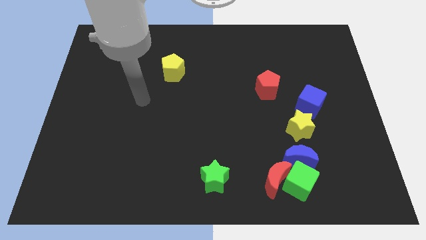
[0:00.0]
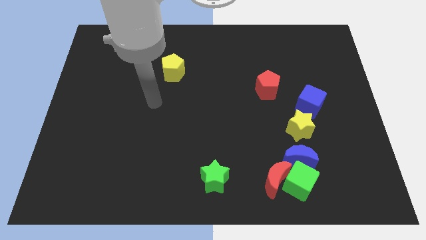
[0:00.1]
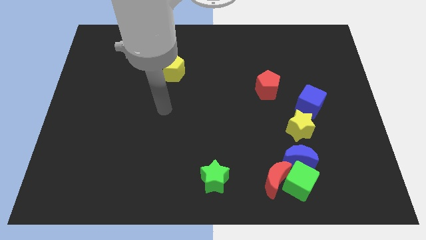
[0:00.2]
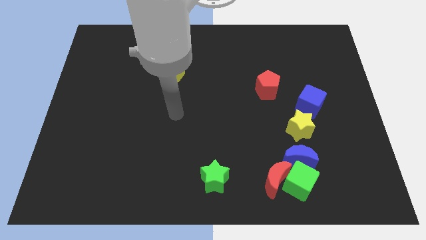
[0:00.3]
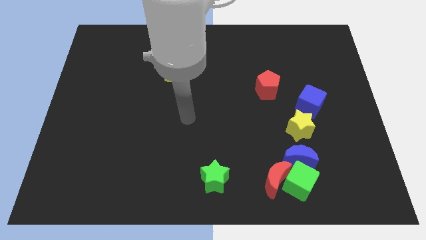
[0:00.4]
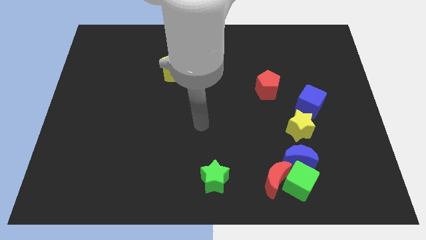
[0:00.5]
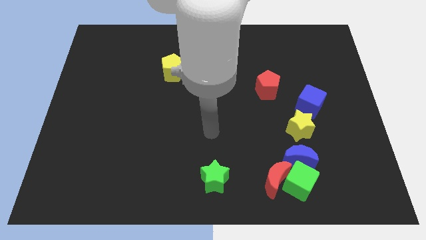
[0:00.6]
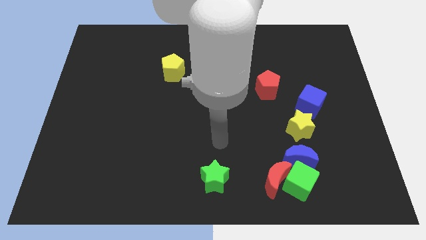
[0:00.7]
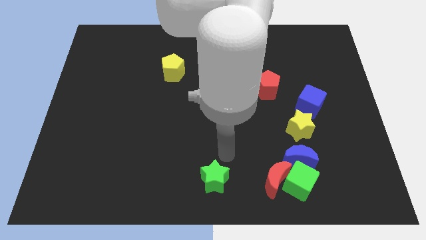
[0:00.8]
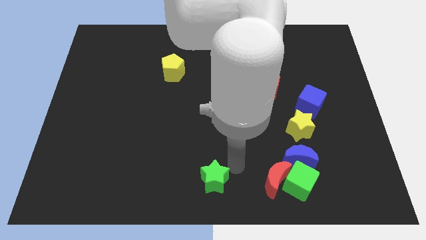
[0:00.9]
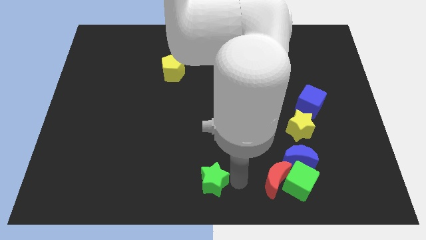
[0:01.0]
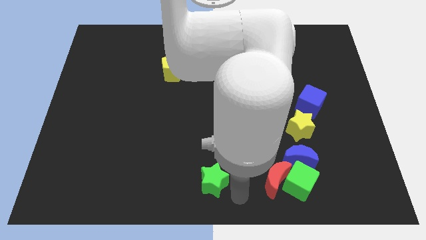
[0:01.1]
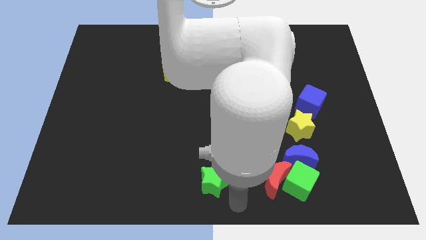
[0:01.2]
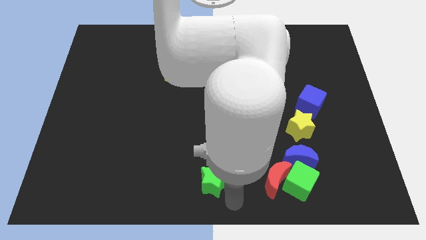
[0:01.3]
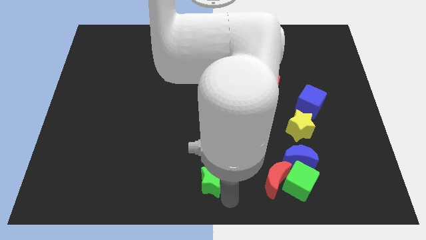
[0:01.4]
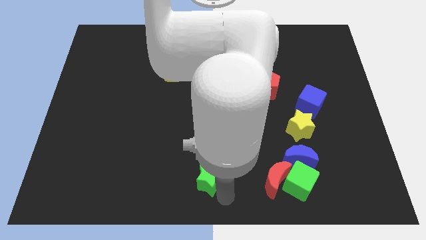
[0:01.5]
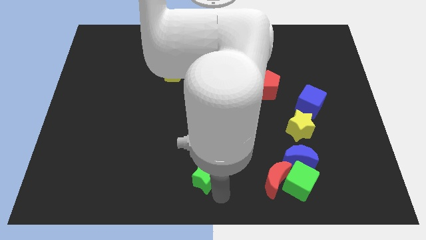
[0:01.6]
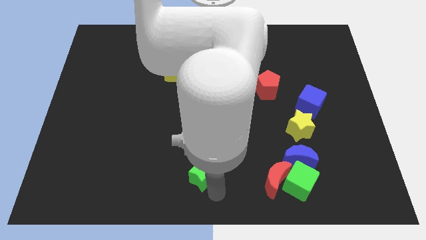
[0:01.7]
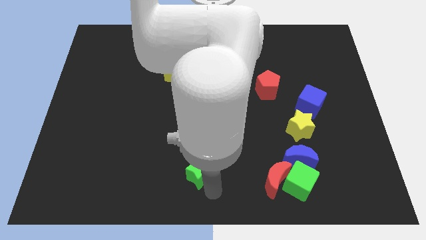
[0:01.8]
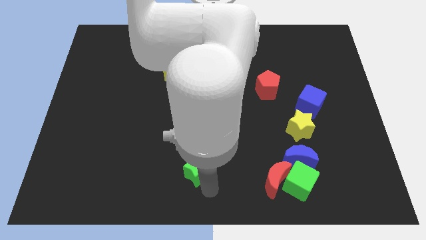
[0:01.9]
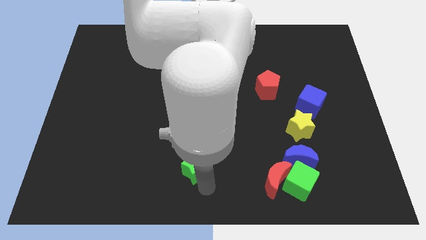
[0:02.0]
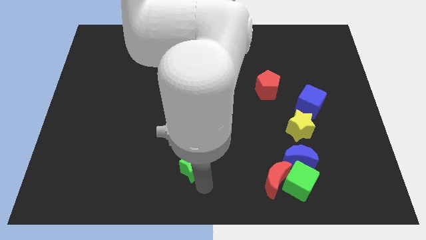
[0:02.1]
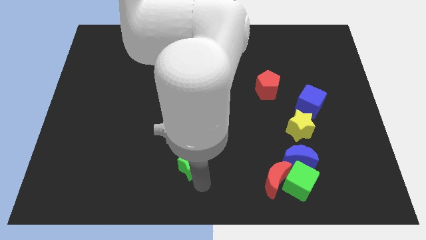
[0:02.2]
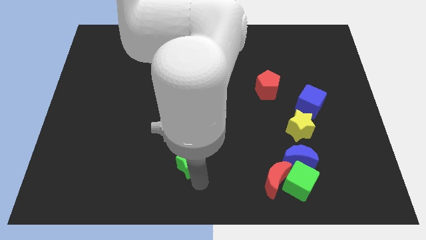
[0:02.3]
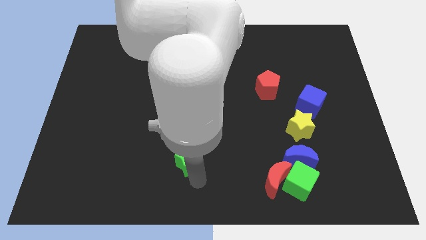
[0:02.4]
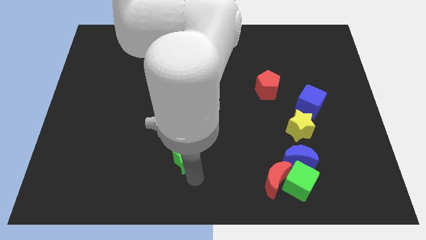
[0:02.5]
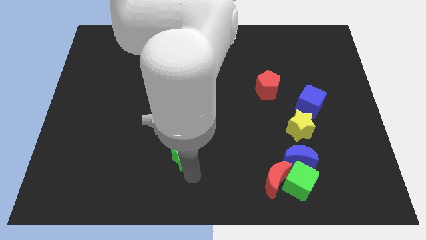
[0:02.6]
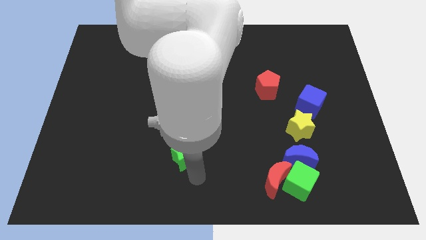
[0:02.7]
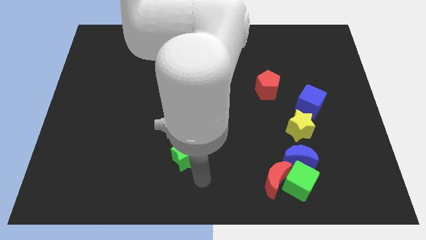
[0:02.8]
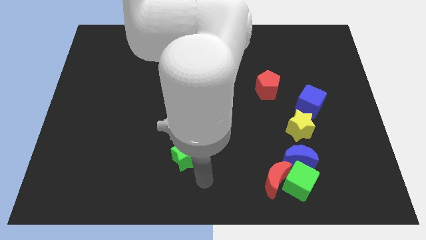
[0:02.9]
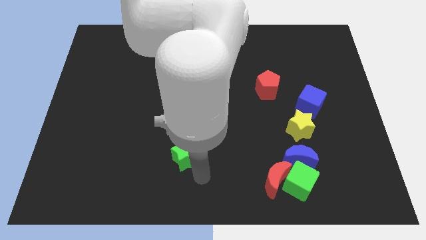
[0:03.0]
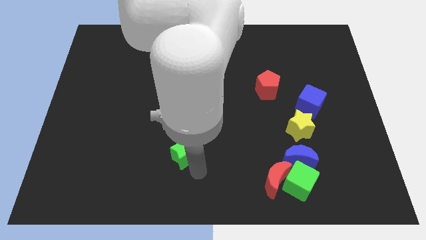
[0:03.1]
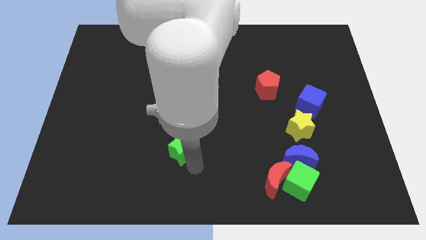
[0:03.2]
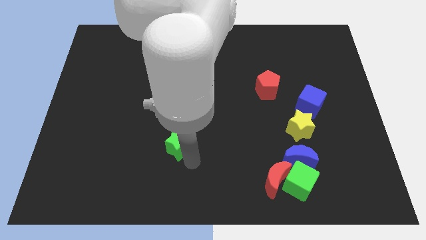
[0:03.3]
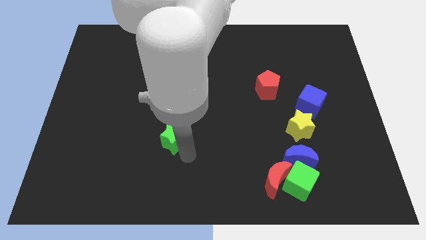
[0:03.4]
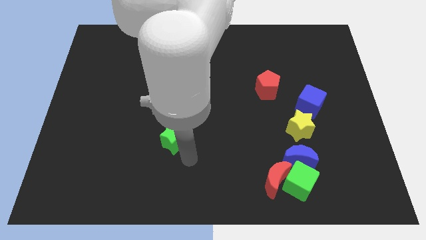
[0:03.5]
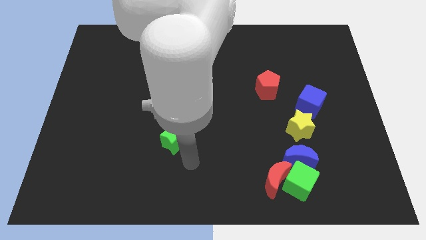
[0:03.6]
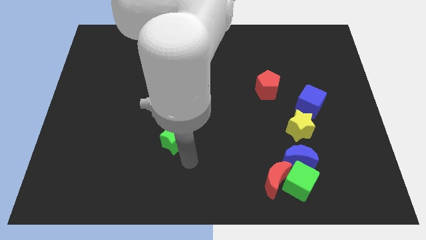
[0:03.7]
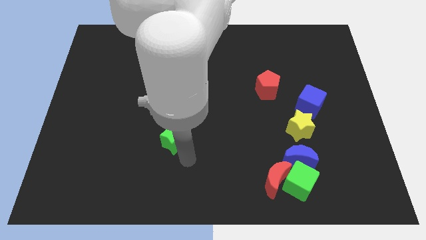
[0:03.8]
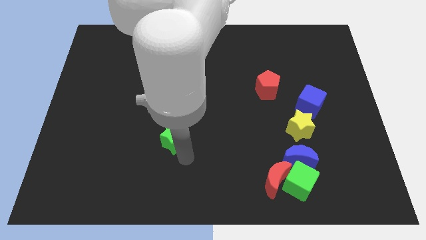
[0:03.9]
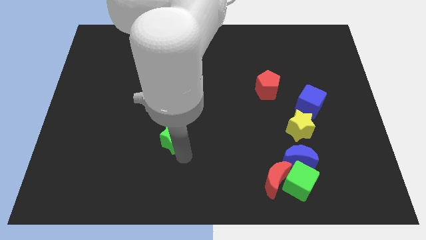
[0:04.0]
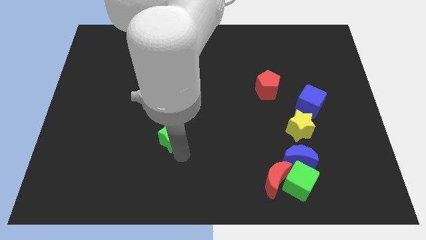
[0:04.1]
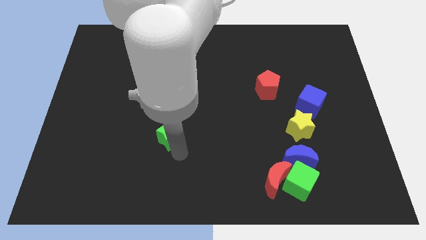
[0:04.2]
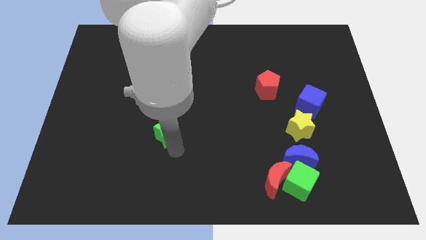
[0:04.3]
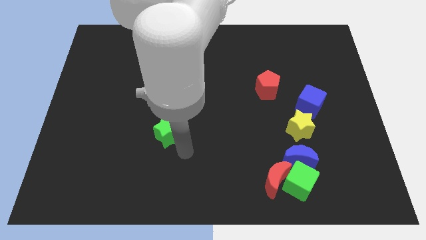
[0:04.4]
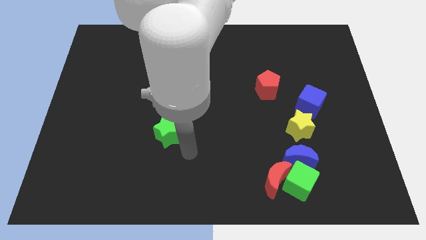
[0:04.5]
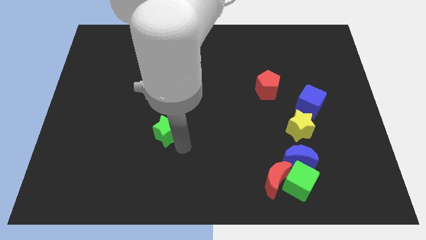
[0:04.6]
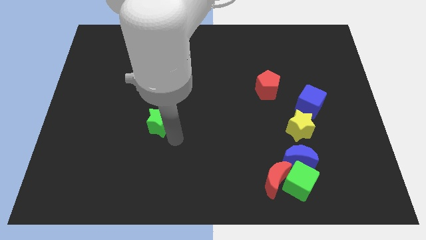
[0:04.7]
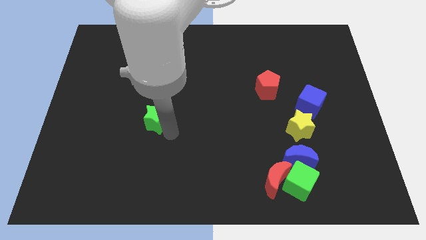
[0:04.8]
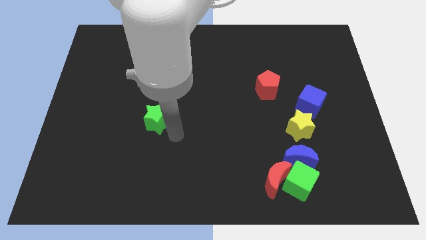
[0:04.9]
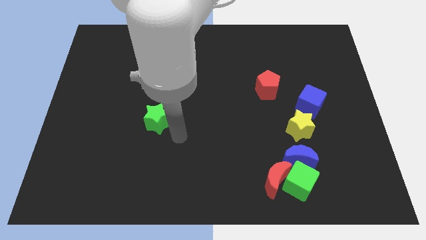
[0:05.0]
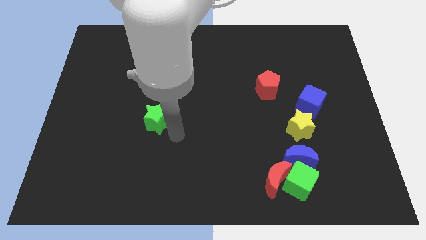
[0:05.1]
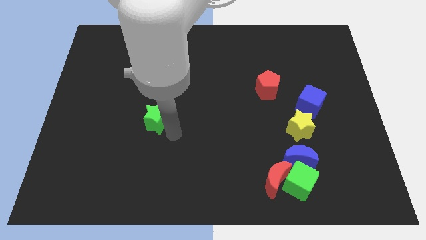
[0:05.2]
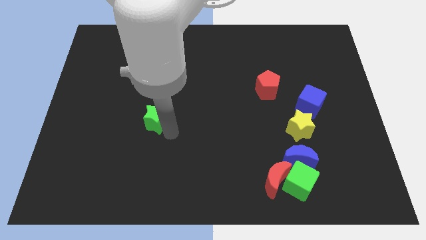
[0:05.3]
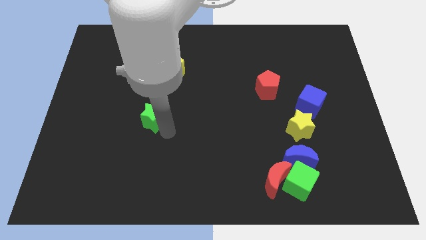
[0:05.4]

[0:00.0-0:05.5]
push the green star up and left

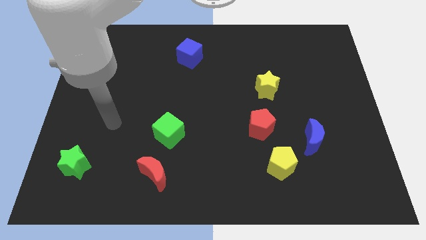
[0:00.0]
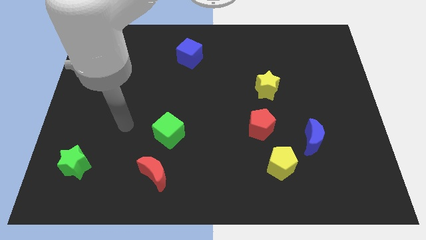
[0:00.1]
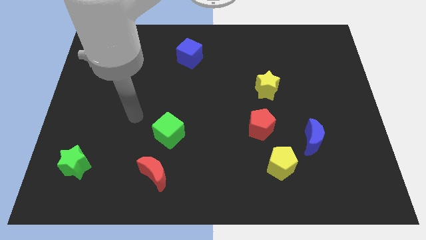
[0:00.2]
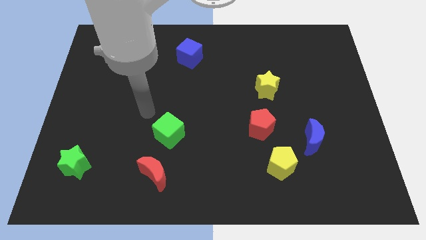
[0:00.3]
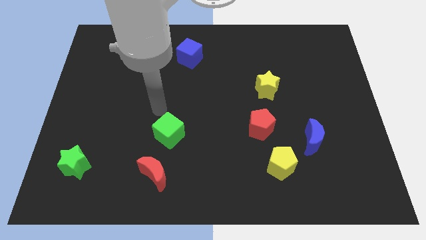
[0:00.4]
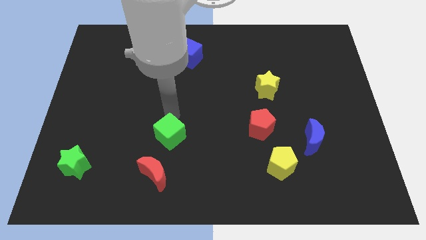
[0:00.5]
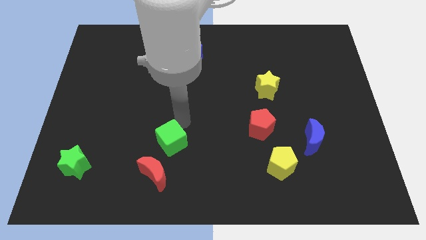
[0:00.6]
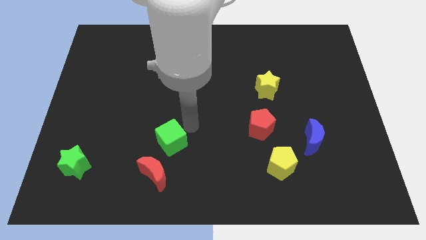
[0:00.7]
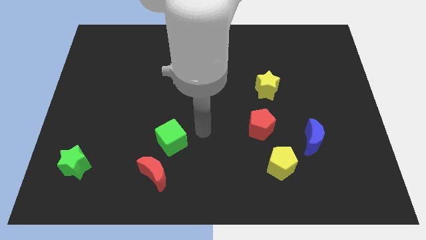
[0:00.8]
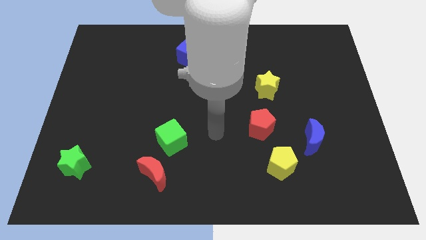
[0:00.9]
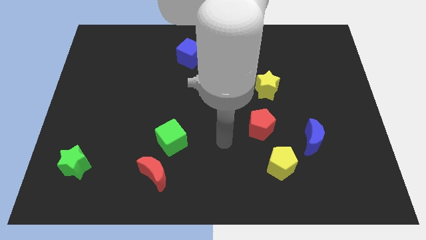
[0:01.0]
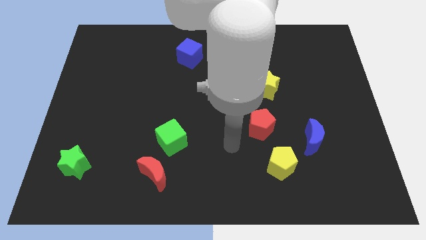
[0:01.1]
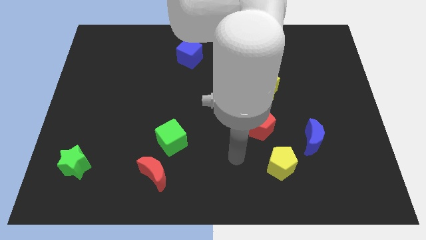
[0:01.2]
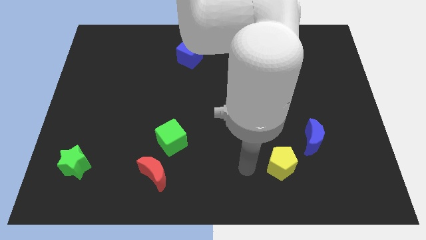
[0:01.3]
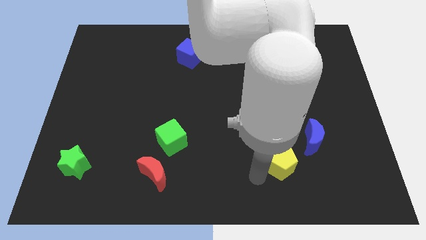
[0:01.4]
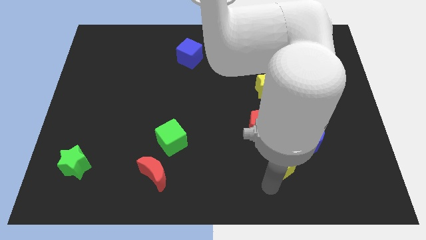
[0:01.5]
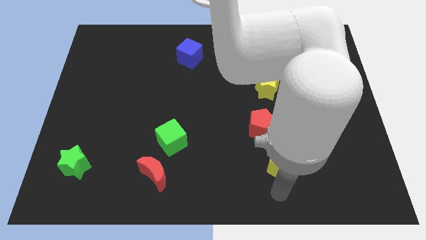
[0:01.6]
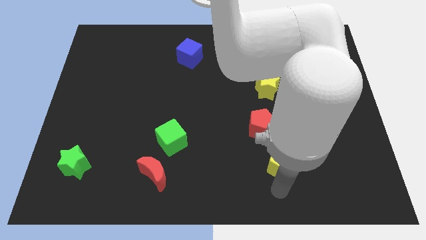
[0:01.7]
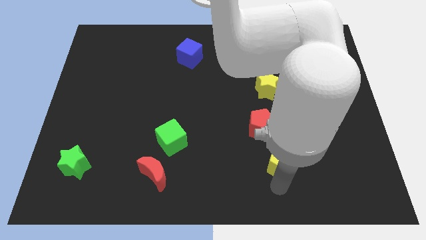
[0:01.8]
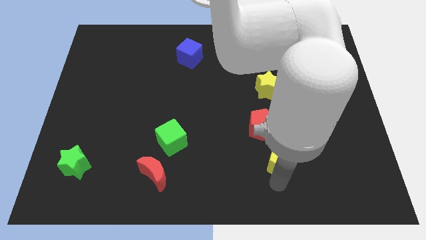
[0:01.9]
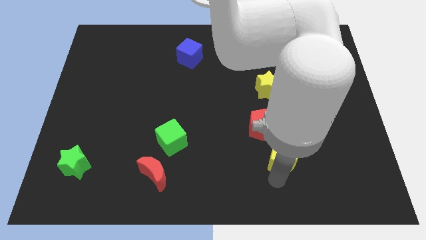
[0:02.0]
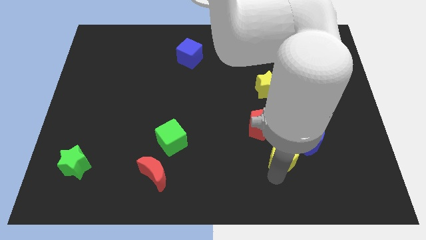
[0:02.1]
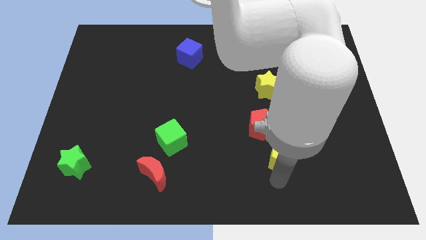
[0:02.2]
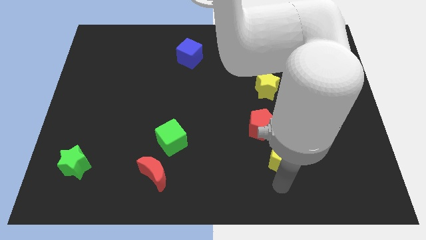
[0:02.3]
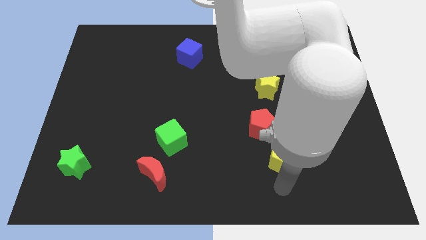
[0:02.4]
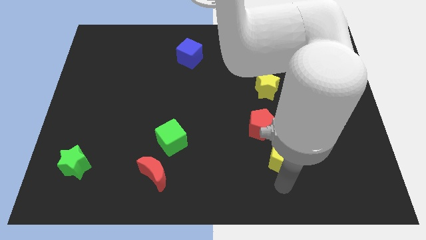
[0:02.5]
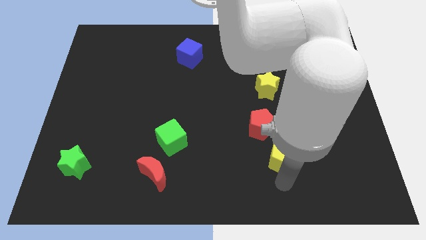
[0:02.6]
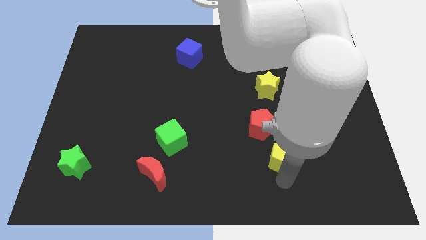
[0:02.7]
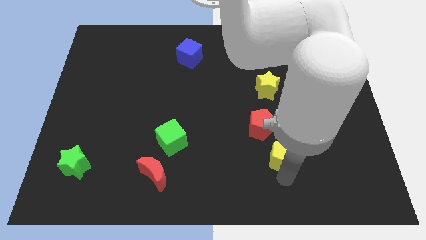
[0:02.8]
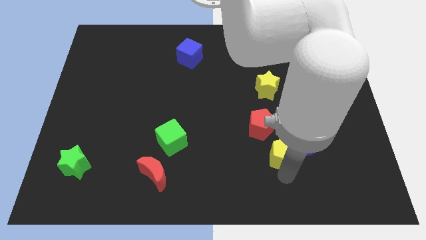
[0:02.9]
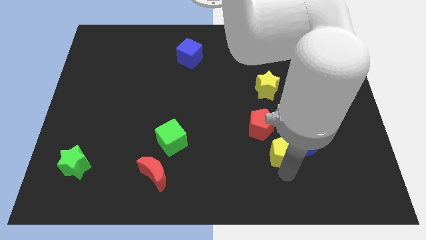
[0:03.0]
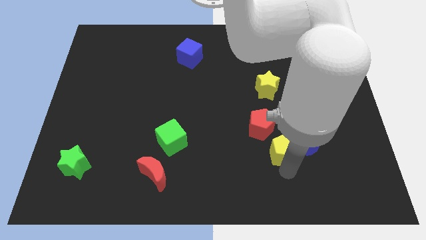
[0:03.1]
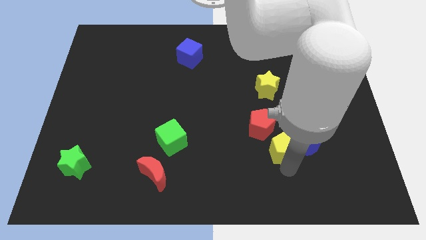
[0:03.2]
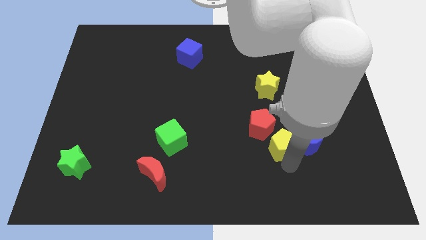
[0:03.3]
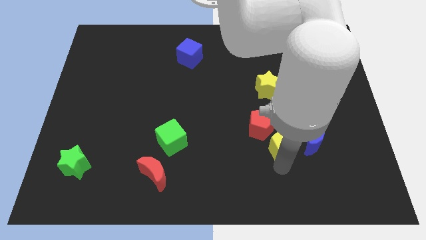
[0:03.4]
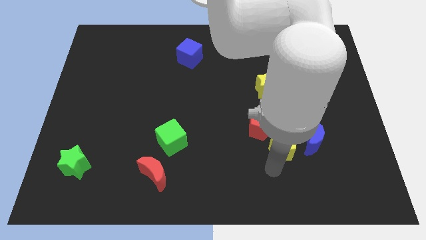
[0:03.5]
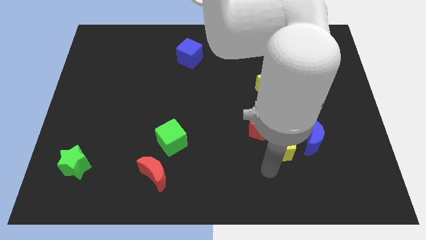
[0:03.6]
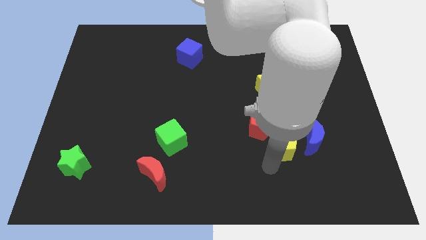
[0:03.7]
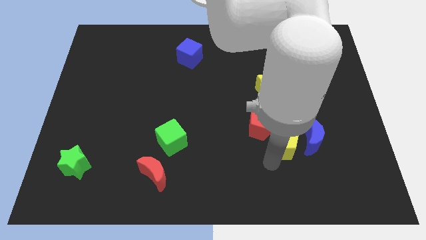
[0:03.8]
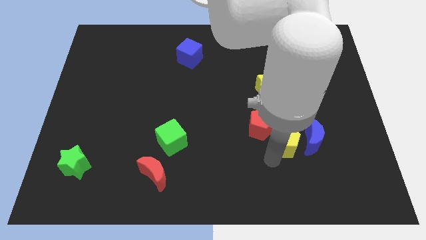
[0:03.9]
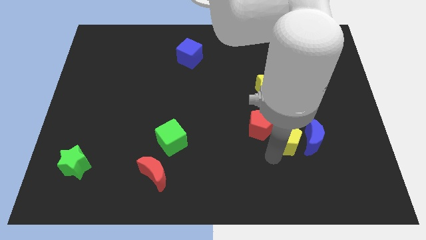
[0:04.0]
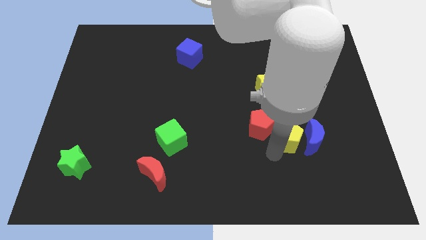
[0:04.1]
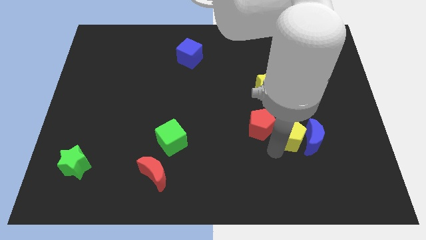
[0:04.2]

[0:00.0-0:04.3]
slide the yellow pentagon a little up and to the right
